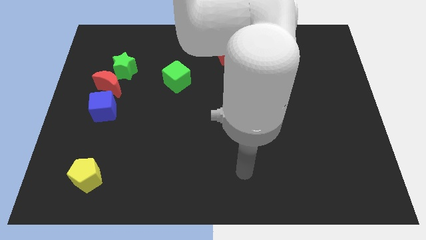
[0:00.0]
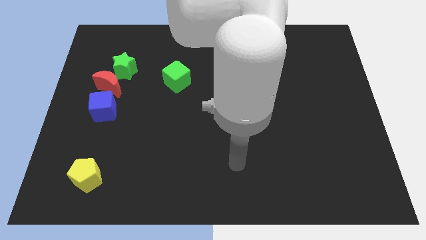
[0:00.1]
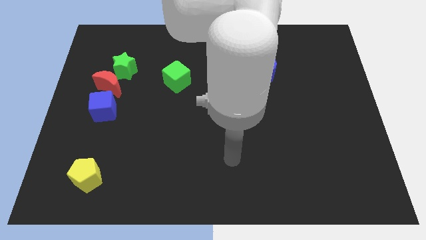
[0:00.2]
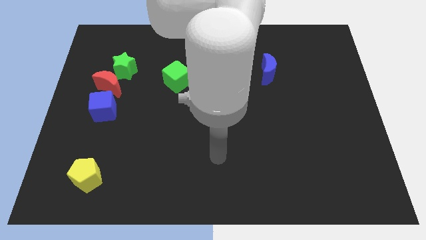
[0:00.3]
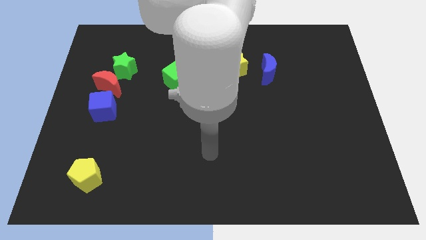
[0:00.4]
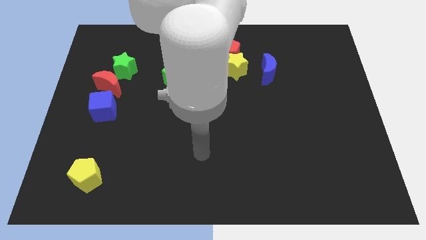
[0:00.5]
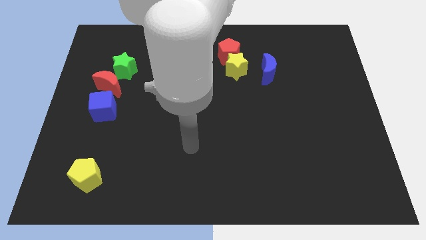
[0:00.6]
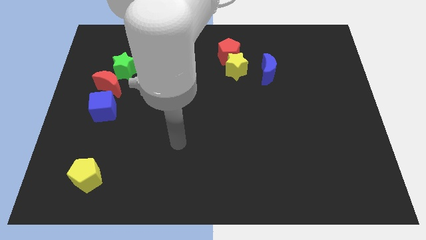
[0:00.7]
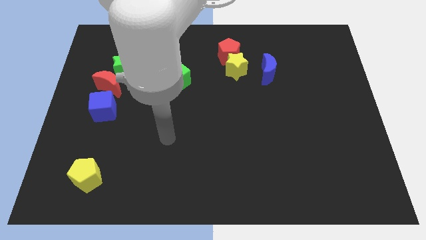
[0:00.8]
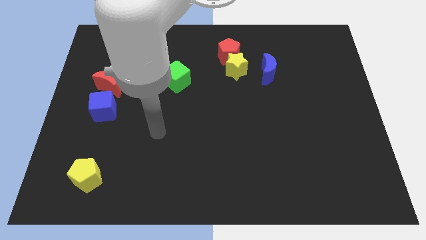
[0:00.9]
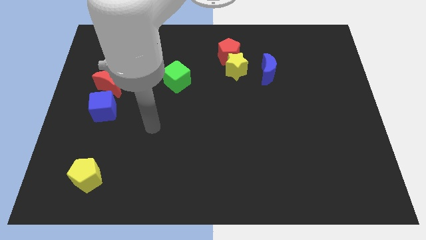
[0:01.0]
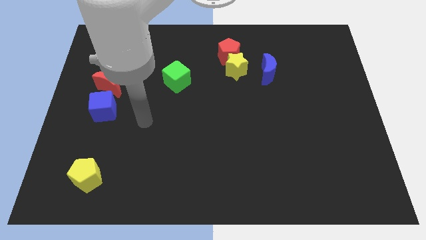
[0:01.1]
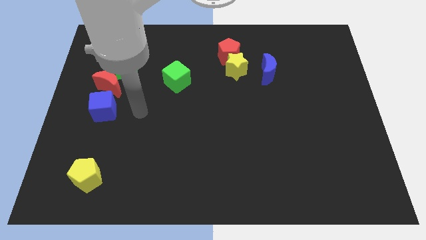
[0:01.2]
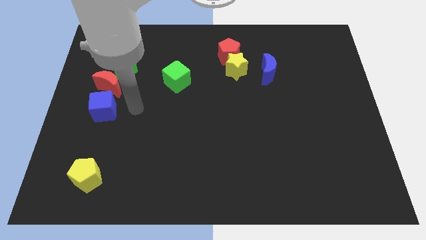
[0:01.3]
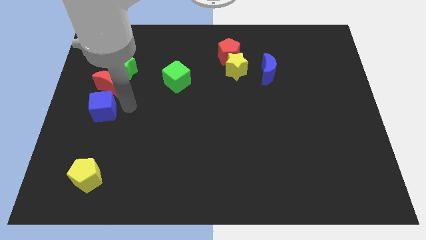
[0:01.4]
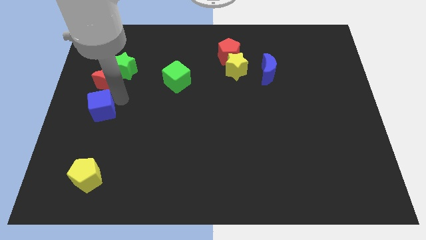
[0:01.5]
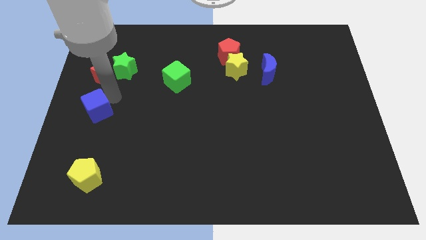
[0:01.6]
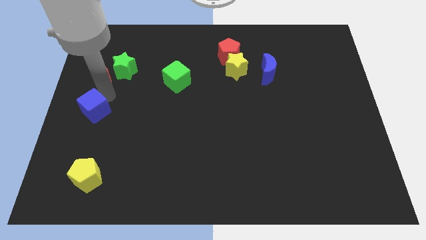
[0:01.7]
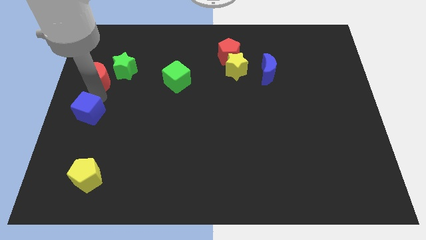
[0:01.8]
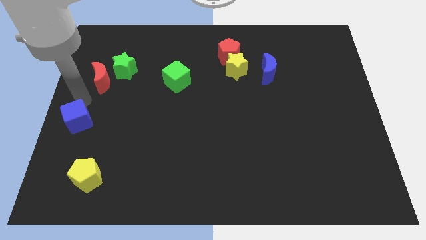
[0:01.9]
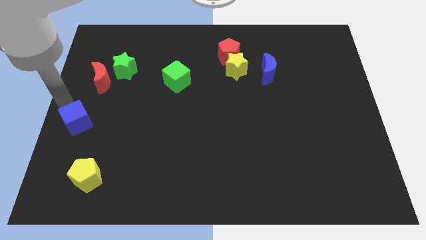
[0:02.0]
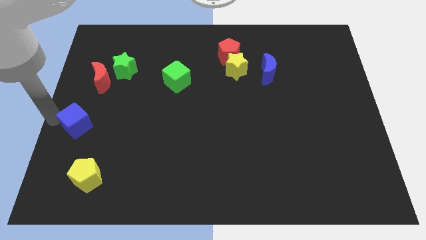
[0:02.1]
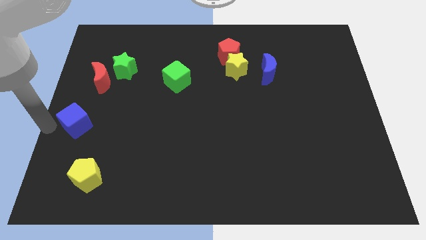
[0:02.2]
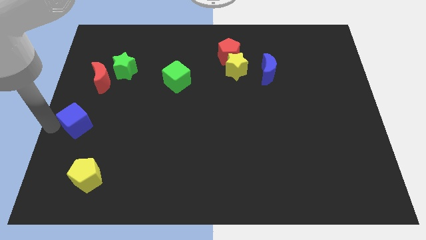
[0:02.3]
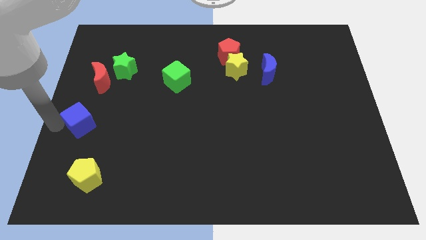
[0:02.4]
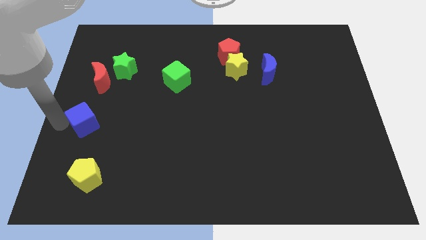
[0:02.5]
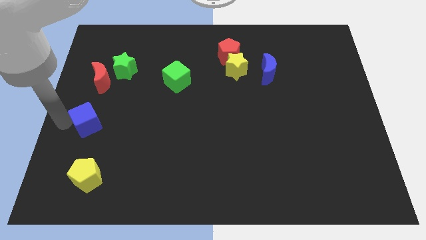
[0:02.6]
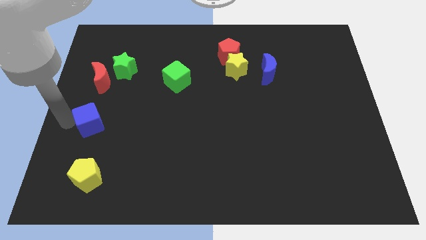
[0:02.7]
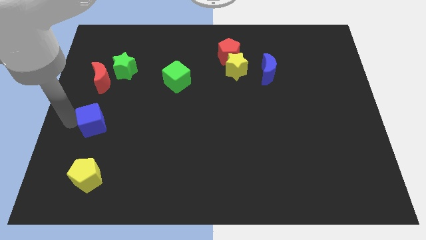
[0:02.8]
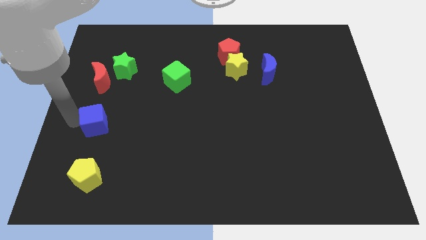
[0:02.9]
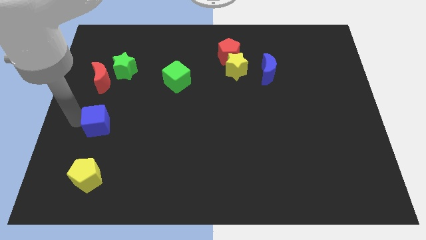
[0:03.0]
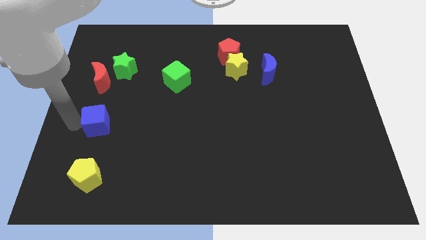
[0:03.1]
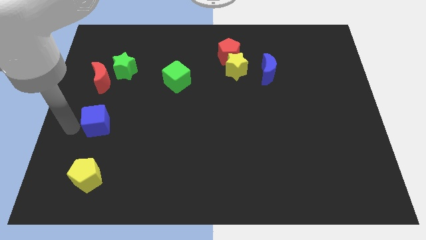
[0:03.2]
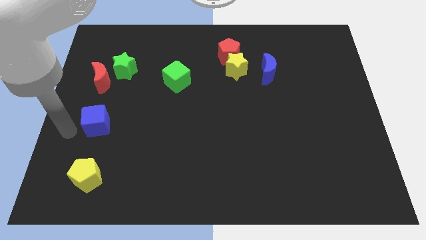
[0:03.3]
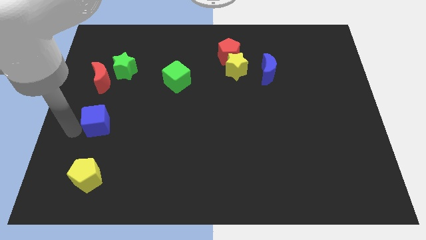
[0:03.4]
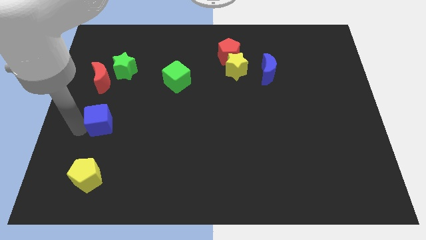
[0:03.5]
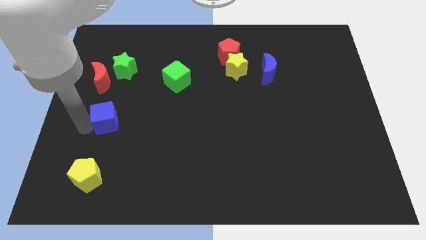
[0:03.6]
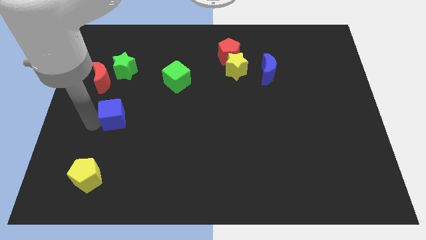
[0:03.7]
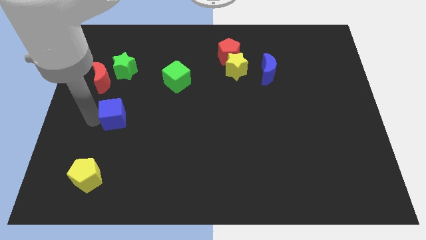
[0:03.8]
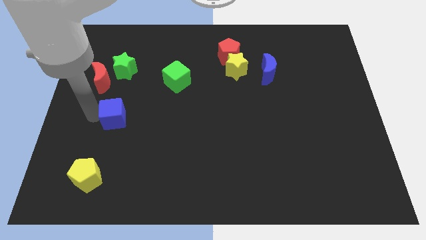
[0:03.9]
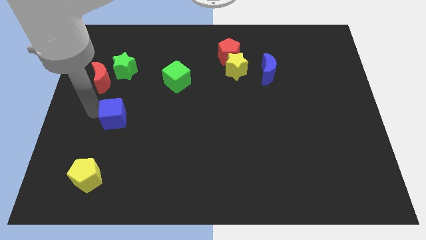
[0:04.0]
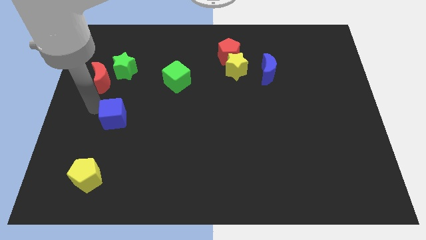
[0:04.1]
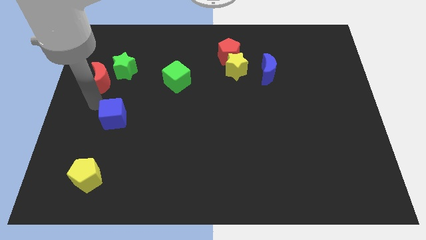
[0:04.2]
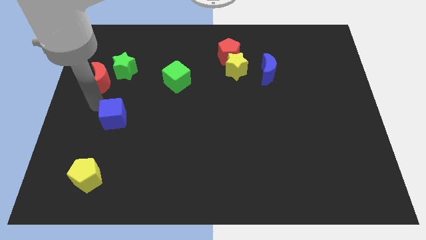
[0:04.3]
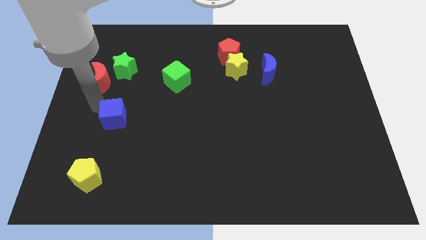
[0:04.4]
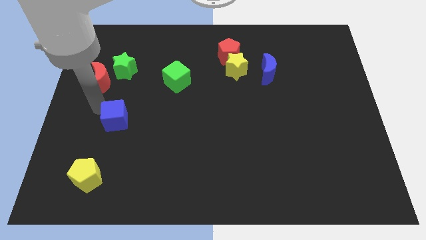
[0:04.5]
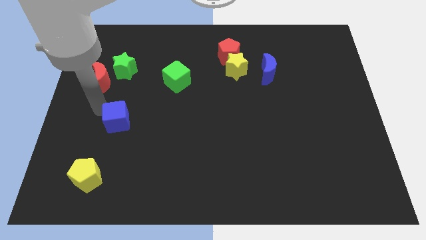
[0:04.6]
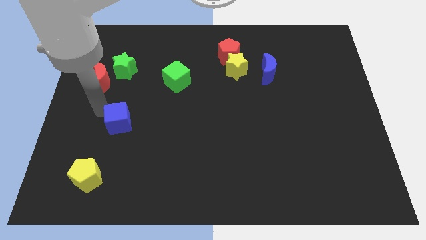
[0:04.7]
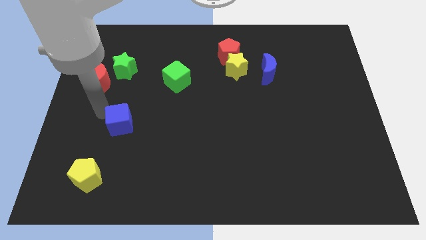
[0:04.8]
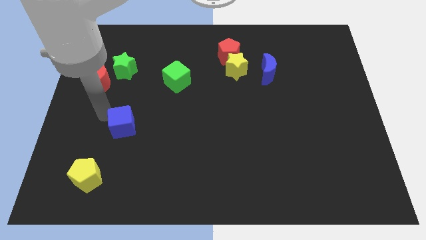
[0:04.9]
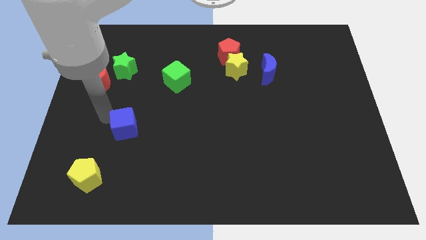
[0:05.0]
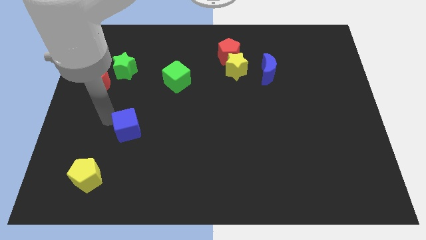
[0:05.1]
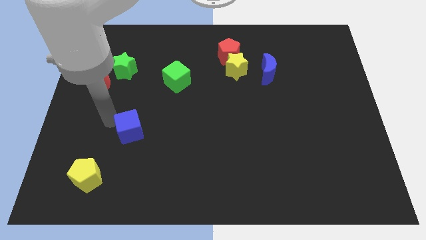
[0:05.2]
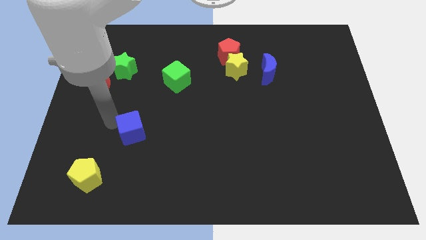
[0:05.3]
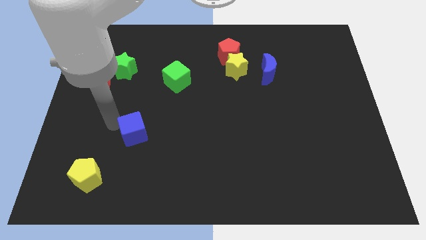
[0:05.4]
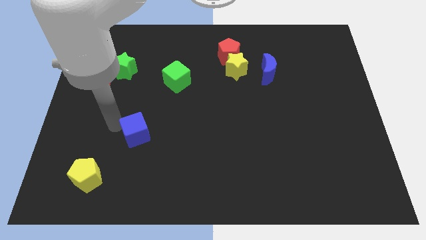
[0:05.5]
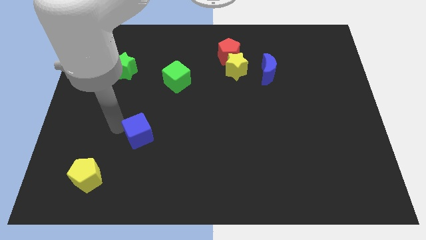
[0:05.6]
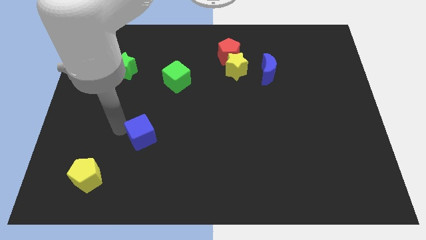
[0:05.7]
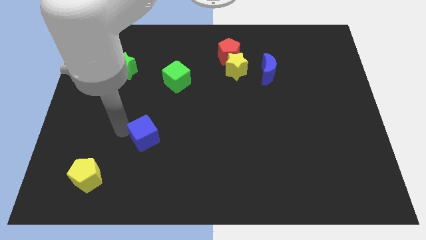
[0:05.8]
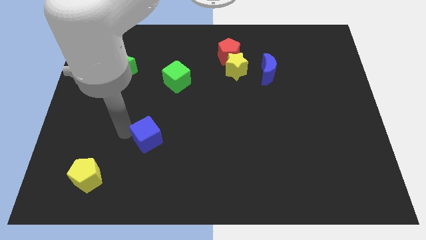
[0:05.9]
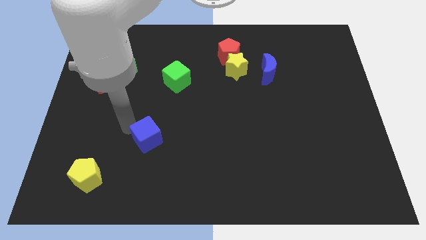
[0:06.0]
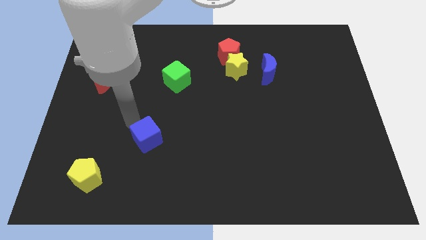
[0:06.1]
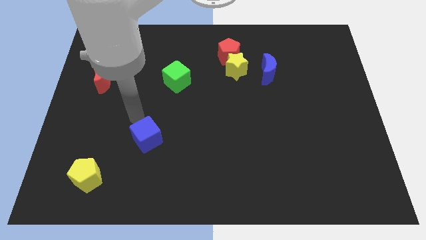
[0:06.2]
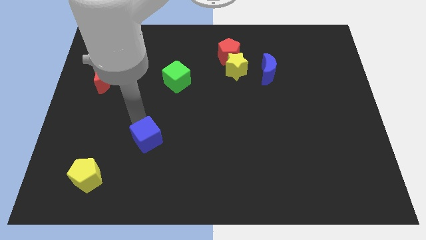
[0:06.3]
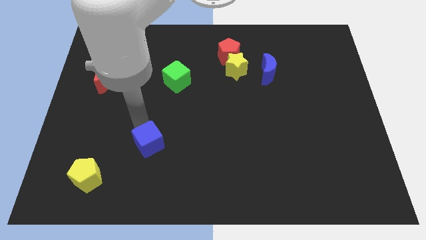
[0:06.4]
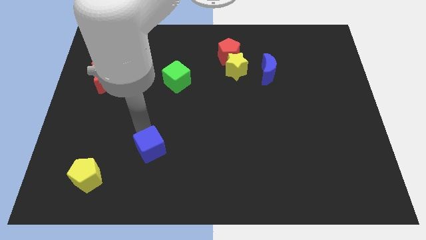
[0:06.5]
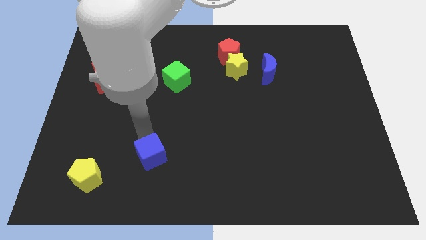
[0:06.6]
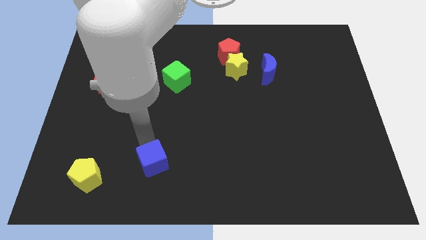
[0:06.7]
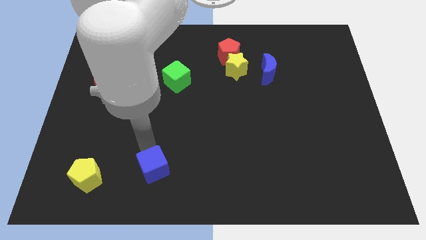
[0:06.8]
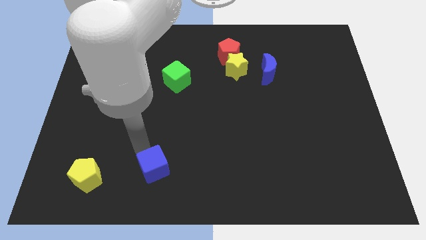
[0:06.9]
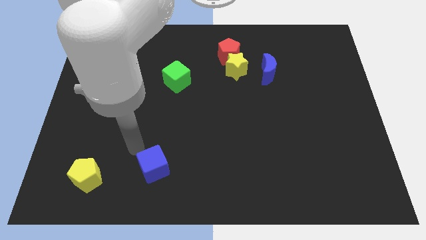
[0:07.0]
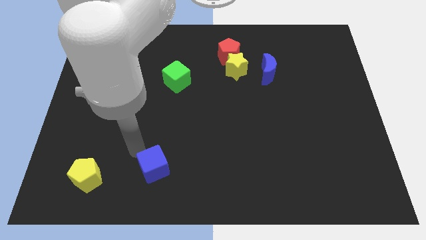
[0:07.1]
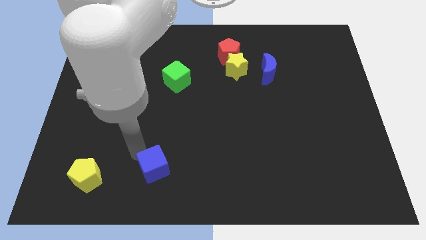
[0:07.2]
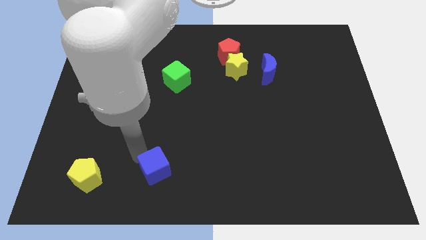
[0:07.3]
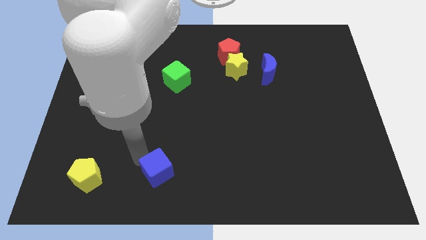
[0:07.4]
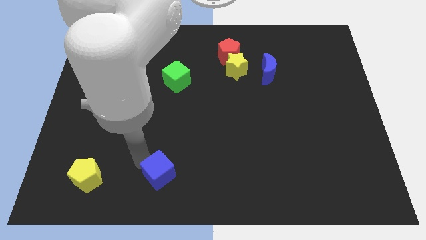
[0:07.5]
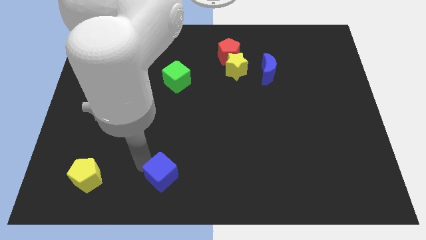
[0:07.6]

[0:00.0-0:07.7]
push the blue cube to the bottom
